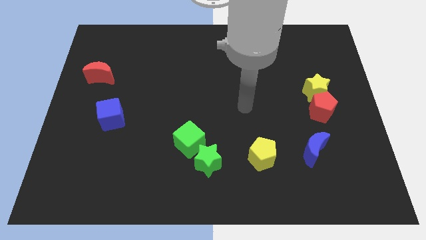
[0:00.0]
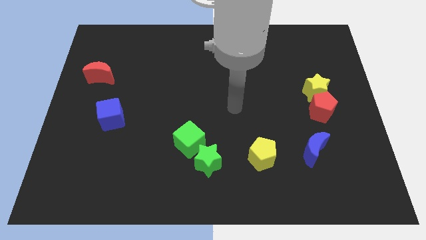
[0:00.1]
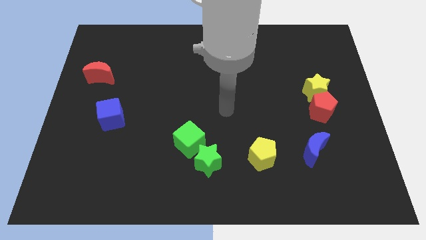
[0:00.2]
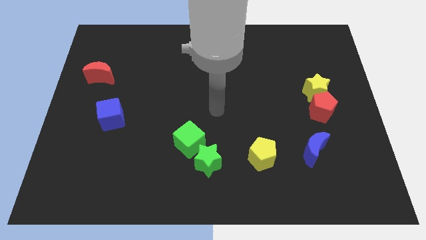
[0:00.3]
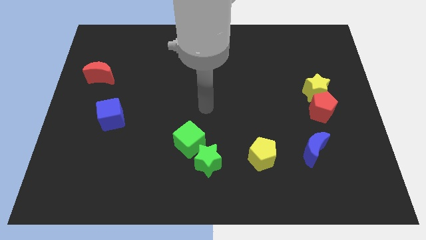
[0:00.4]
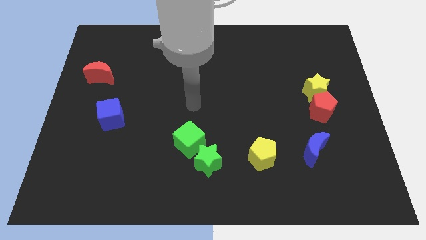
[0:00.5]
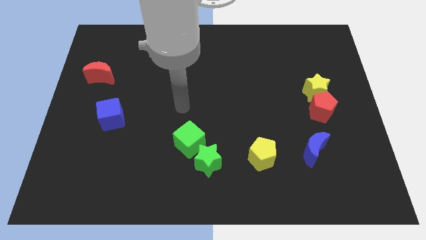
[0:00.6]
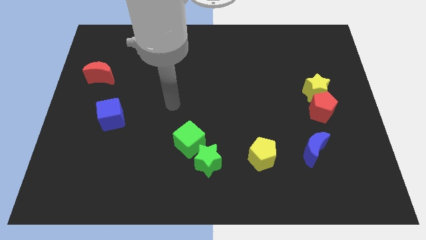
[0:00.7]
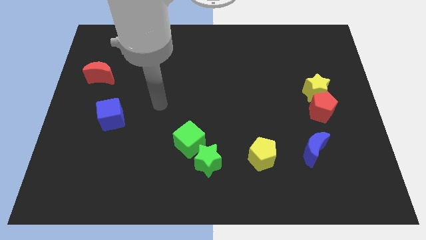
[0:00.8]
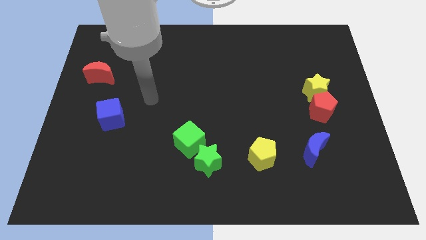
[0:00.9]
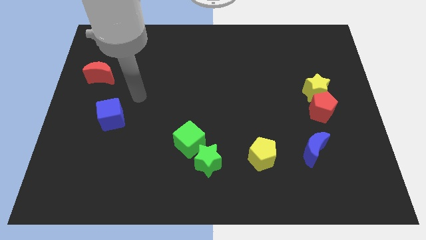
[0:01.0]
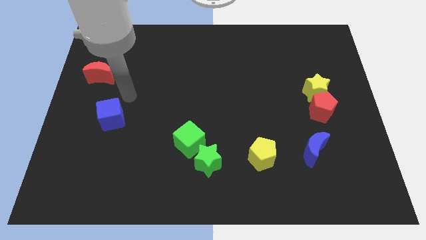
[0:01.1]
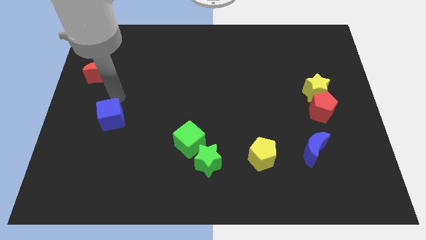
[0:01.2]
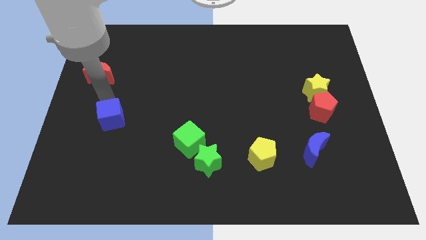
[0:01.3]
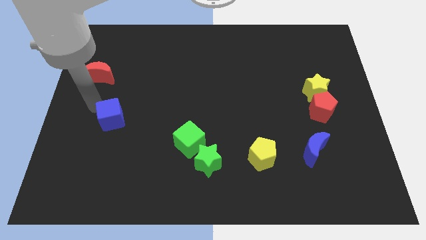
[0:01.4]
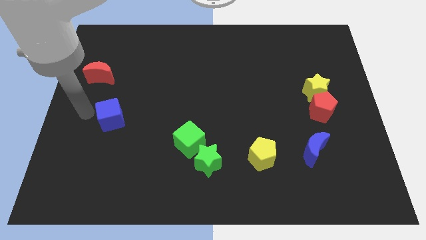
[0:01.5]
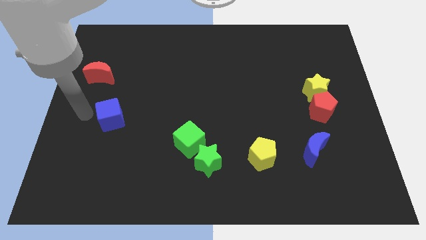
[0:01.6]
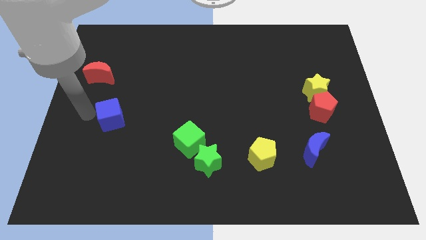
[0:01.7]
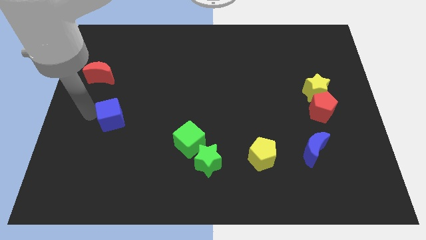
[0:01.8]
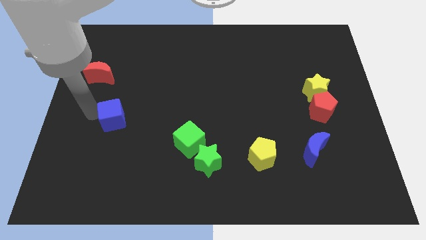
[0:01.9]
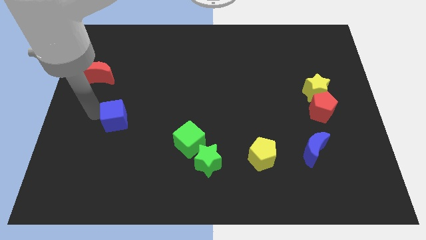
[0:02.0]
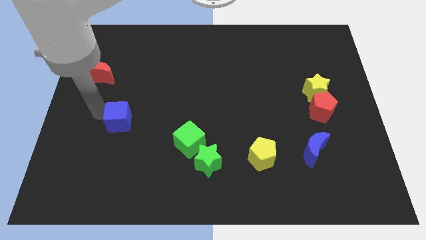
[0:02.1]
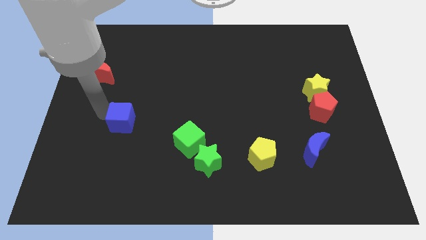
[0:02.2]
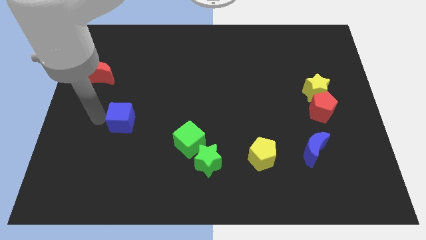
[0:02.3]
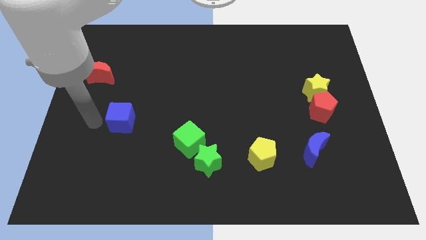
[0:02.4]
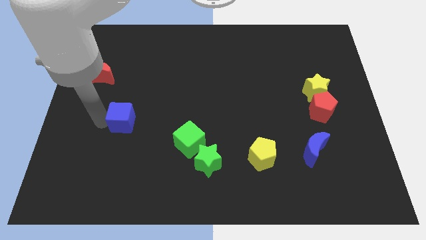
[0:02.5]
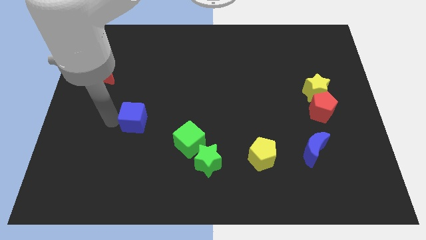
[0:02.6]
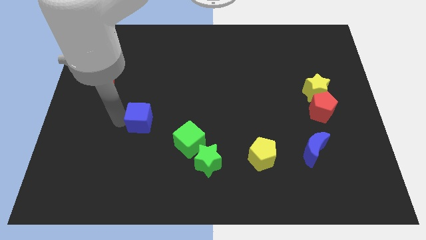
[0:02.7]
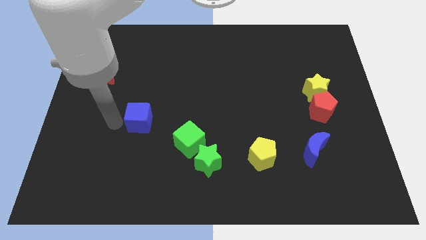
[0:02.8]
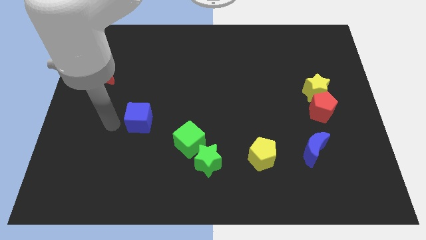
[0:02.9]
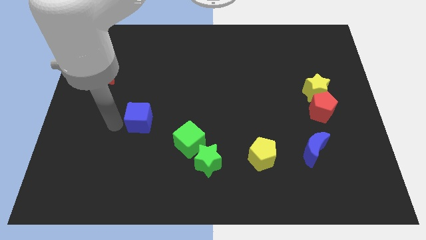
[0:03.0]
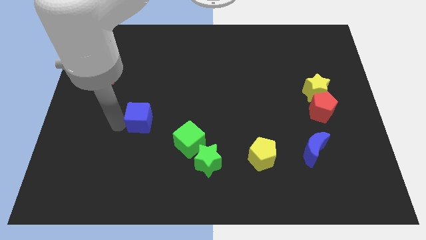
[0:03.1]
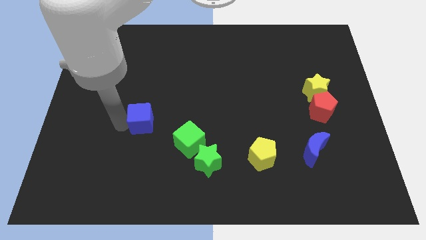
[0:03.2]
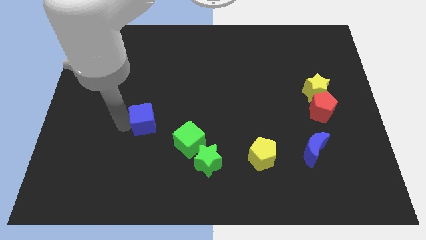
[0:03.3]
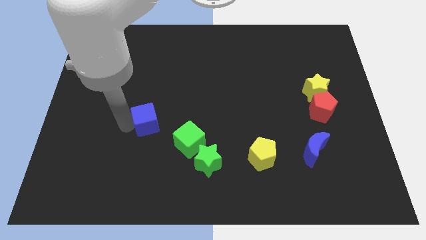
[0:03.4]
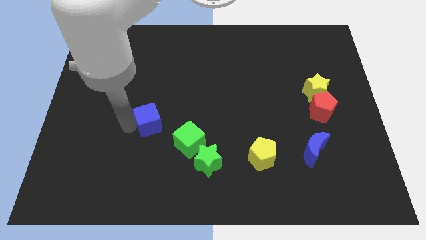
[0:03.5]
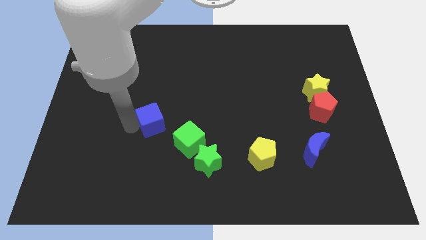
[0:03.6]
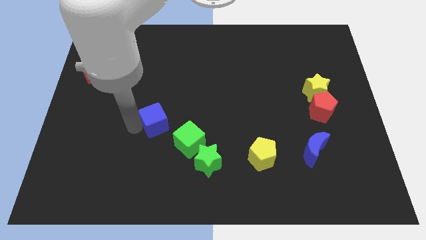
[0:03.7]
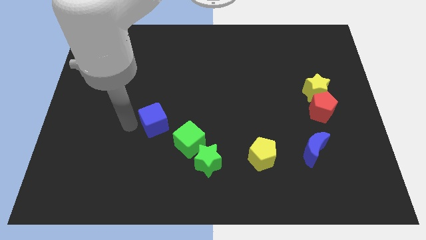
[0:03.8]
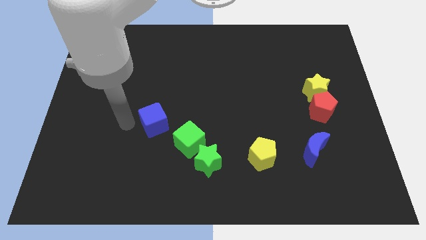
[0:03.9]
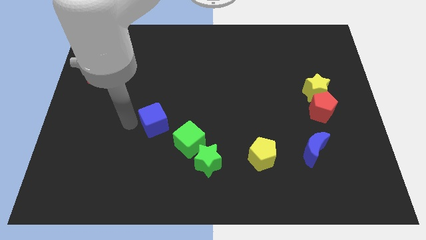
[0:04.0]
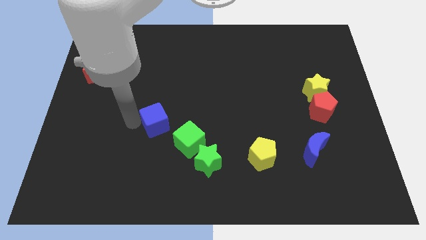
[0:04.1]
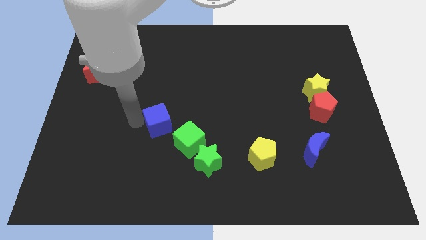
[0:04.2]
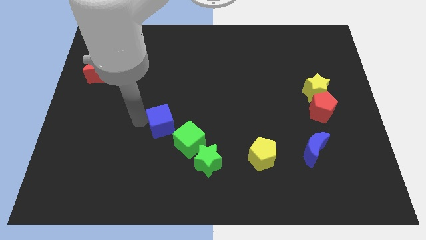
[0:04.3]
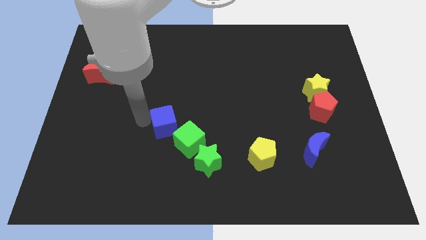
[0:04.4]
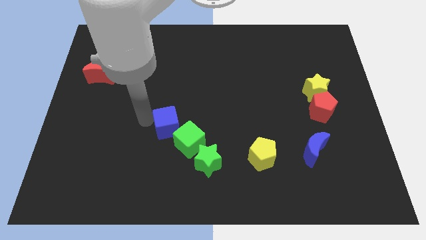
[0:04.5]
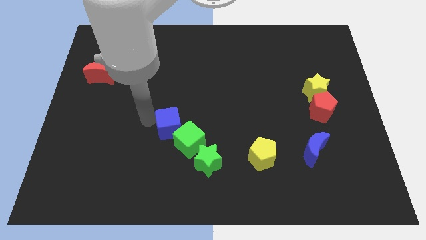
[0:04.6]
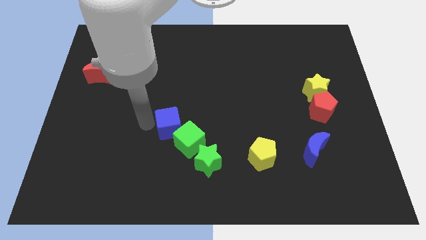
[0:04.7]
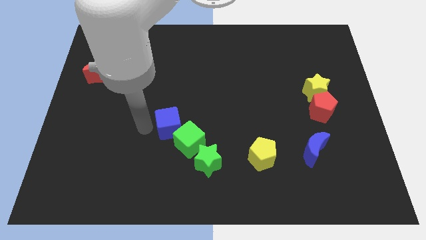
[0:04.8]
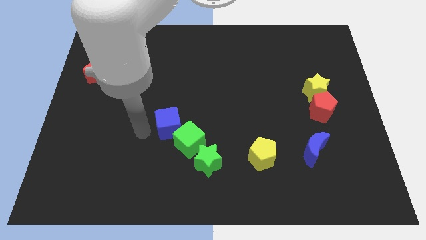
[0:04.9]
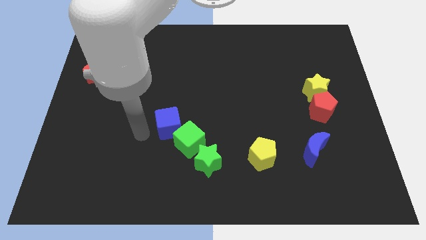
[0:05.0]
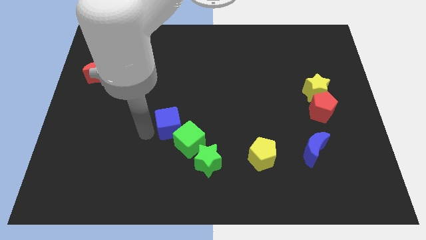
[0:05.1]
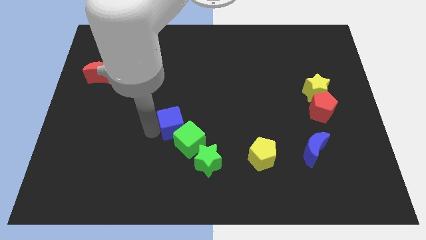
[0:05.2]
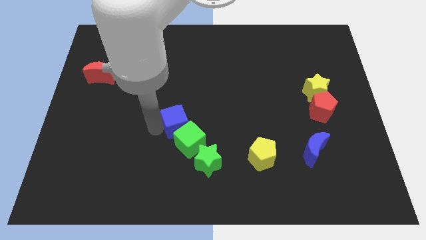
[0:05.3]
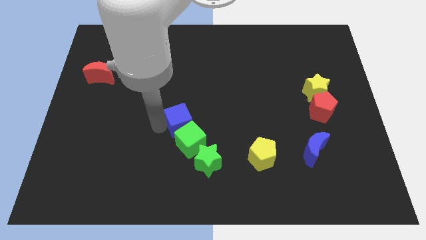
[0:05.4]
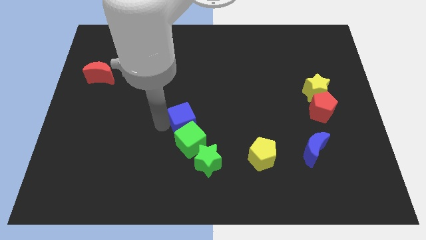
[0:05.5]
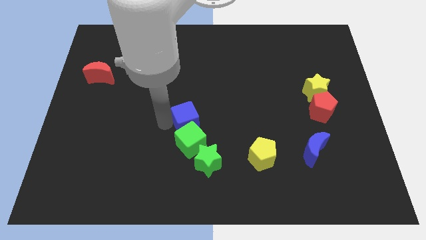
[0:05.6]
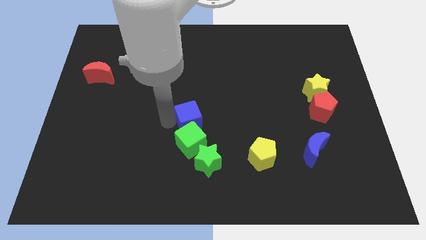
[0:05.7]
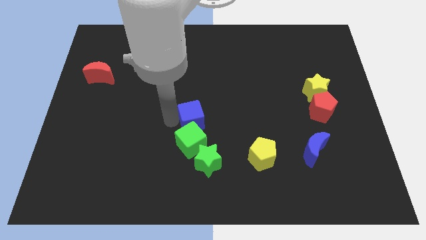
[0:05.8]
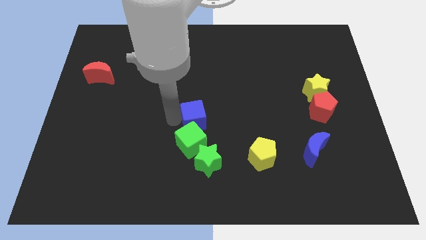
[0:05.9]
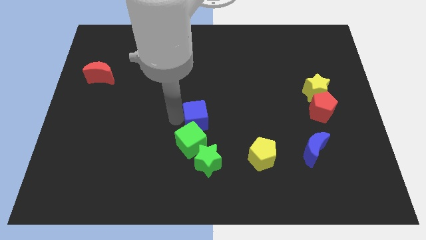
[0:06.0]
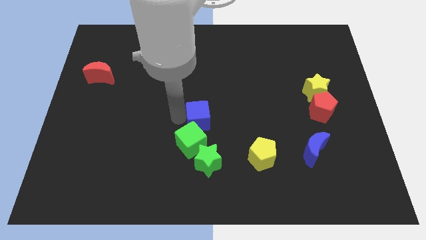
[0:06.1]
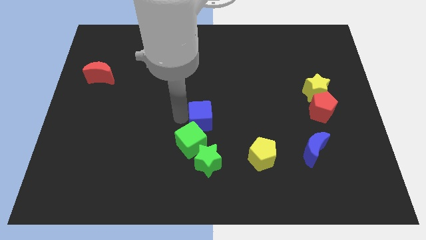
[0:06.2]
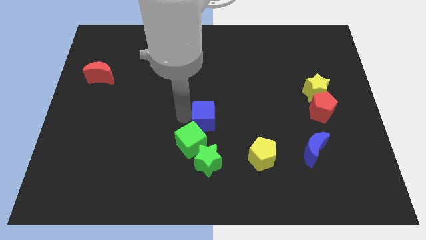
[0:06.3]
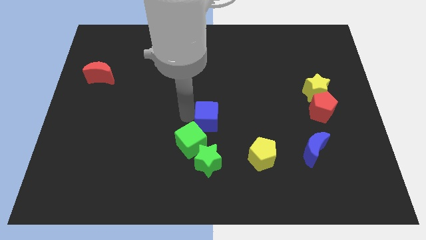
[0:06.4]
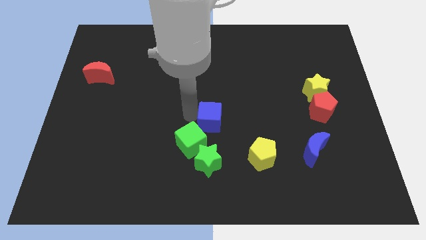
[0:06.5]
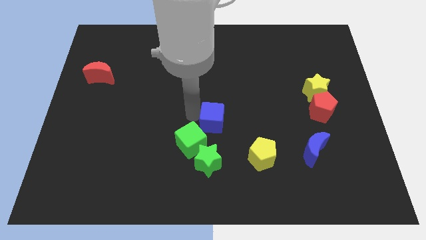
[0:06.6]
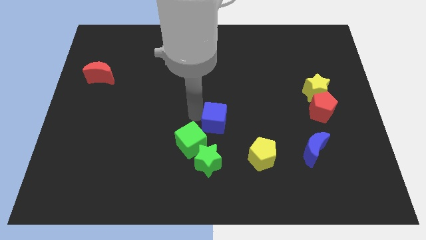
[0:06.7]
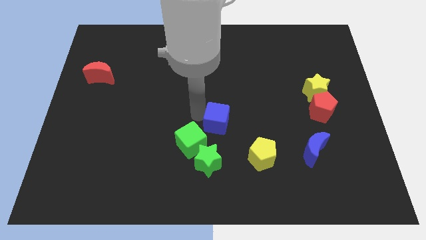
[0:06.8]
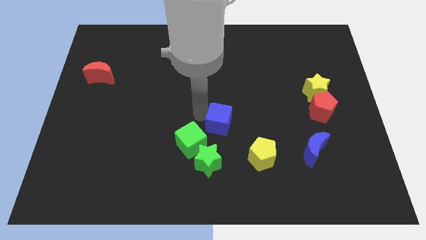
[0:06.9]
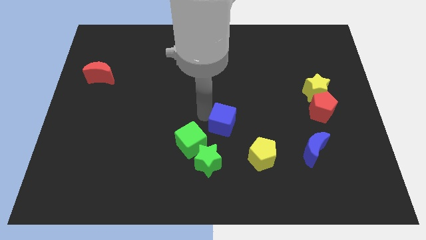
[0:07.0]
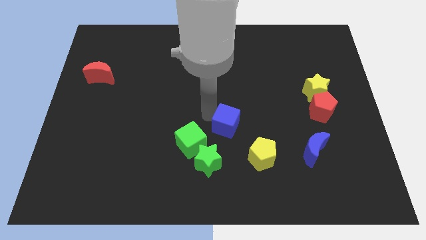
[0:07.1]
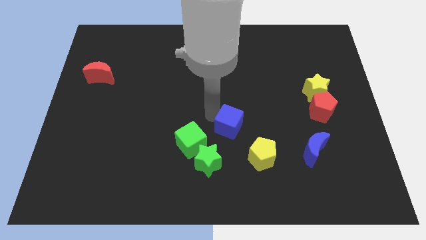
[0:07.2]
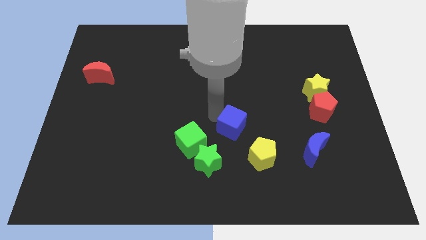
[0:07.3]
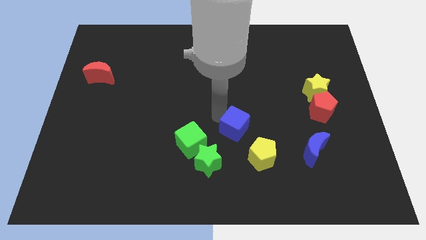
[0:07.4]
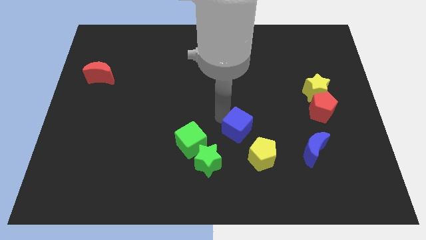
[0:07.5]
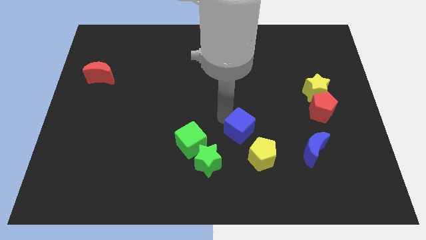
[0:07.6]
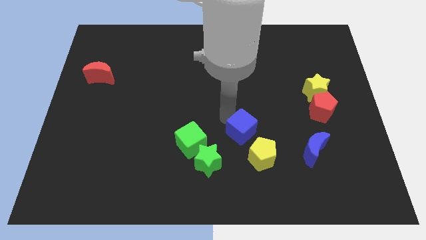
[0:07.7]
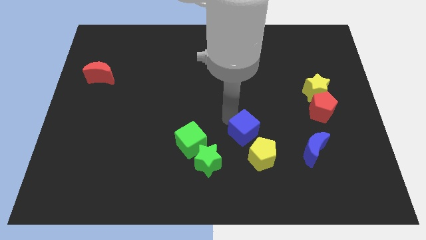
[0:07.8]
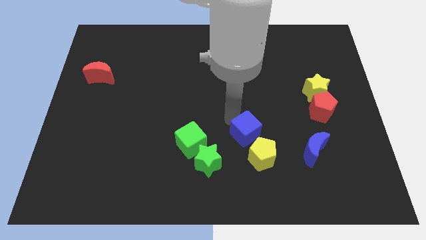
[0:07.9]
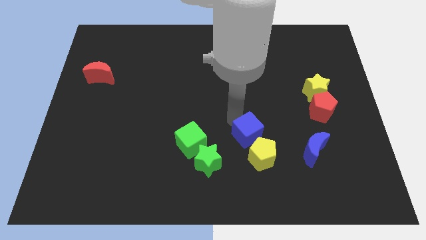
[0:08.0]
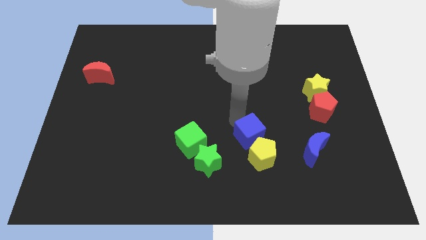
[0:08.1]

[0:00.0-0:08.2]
push the blue cube to the yellow pentagon
